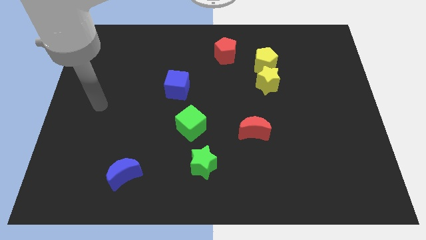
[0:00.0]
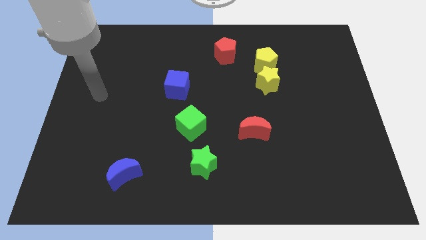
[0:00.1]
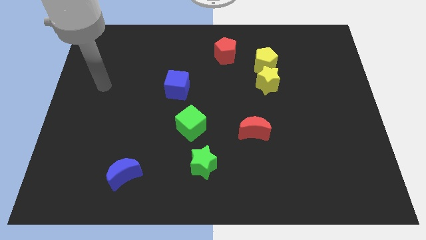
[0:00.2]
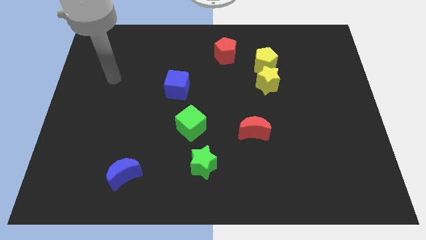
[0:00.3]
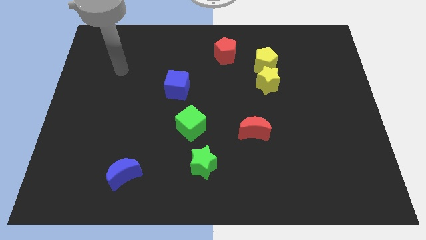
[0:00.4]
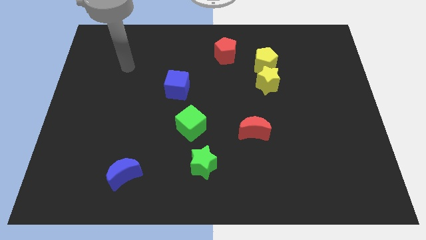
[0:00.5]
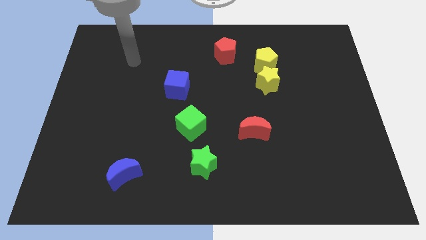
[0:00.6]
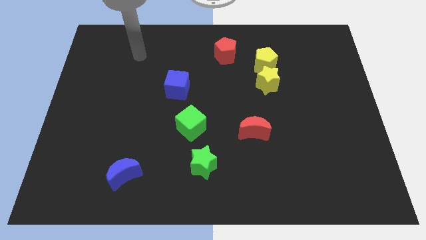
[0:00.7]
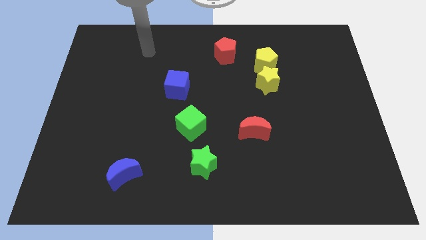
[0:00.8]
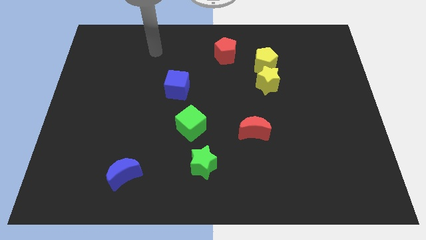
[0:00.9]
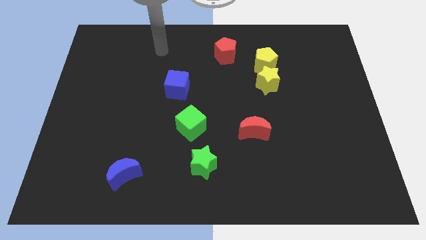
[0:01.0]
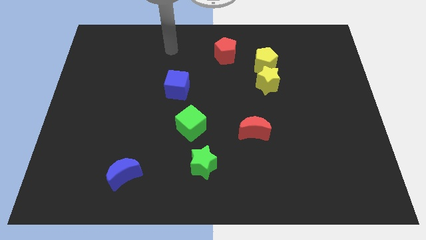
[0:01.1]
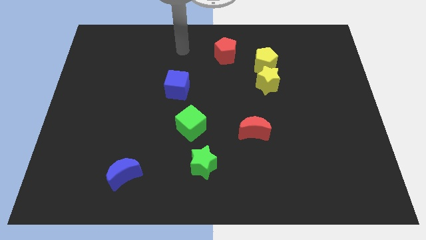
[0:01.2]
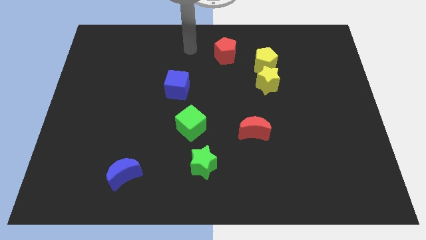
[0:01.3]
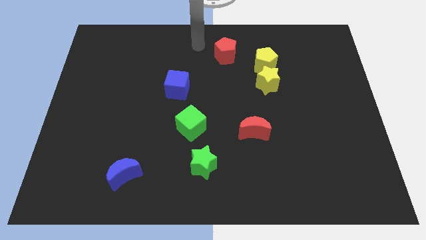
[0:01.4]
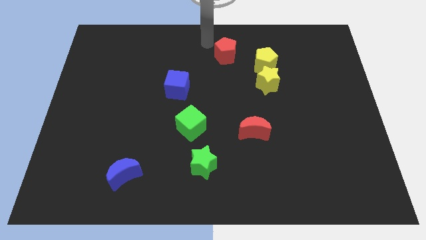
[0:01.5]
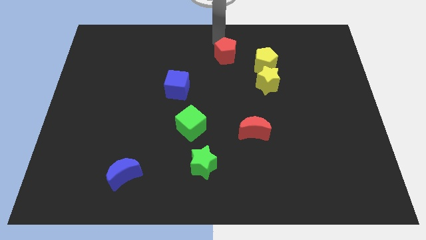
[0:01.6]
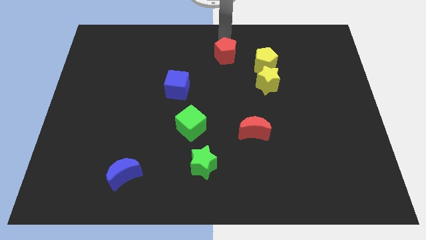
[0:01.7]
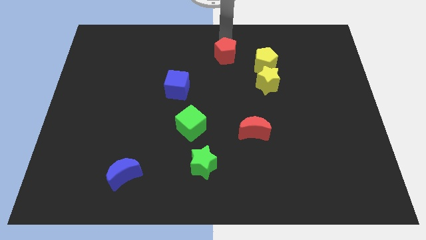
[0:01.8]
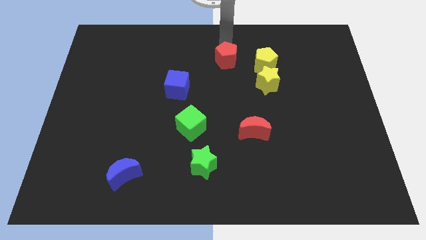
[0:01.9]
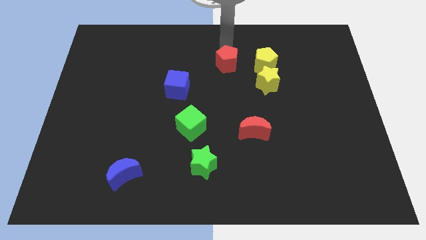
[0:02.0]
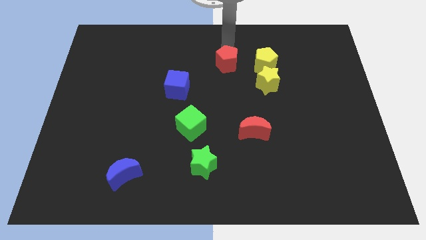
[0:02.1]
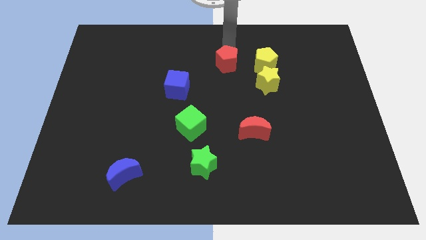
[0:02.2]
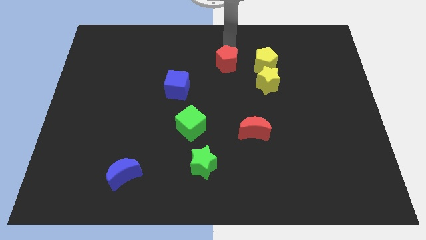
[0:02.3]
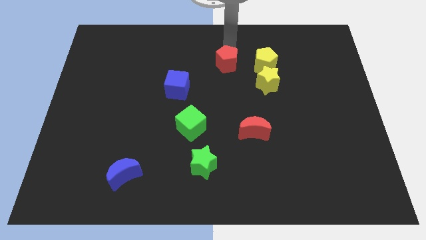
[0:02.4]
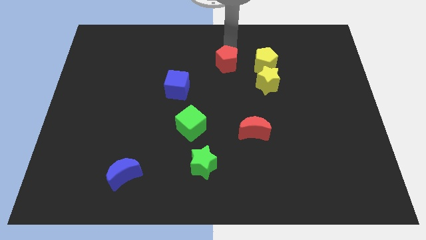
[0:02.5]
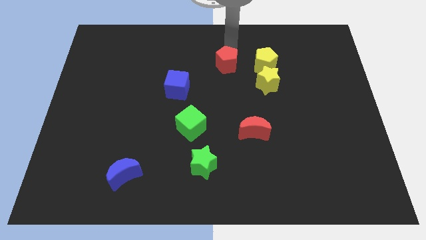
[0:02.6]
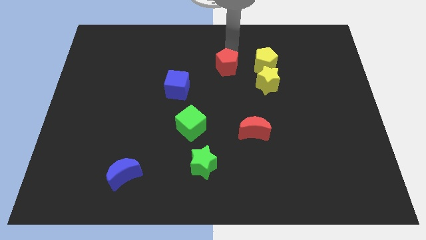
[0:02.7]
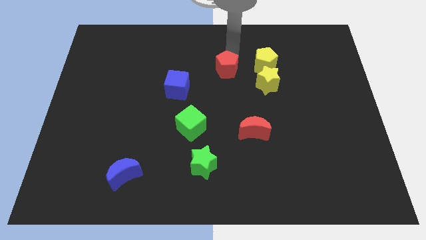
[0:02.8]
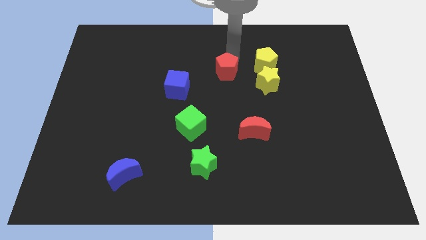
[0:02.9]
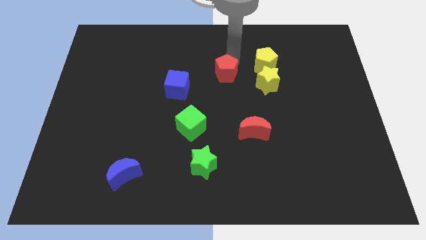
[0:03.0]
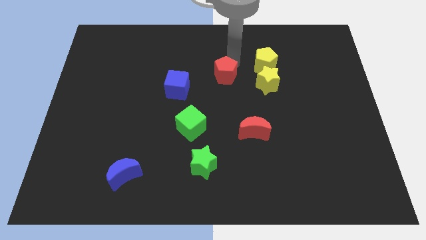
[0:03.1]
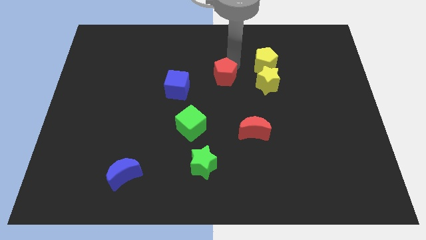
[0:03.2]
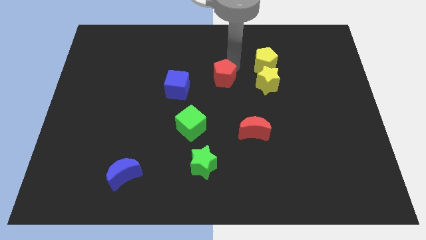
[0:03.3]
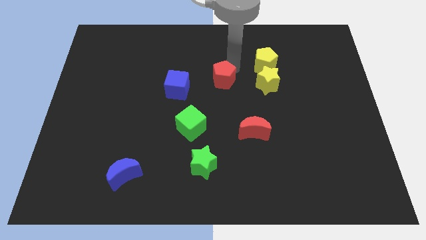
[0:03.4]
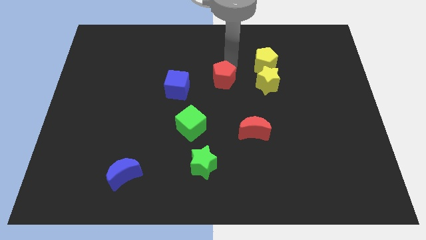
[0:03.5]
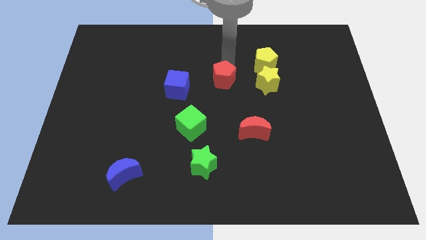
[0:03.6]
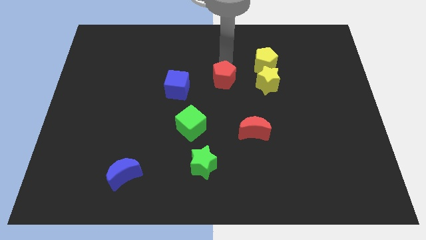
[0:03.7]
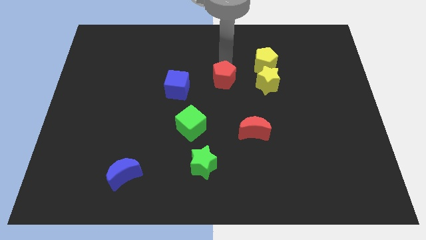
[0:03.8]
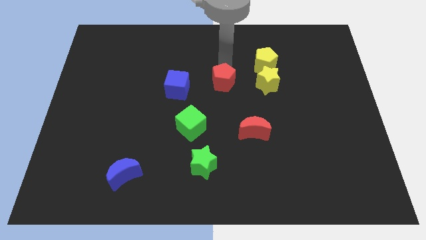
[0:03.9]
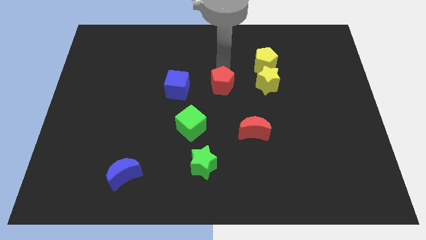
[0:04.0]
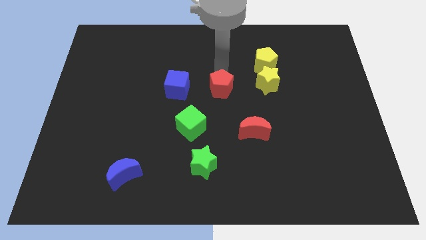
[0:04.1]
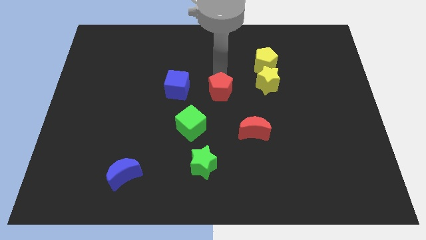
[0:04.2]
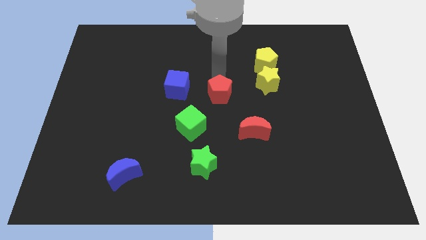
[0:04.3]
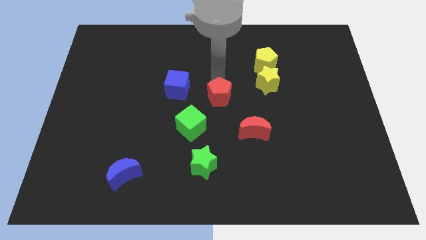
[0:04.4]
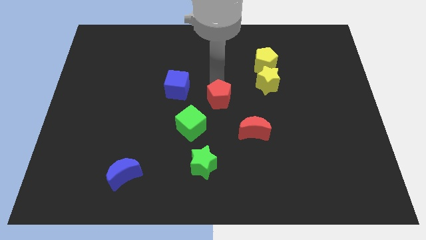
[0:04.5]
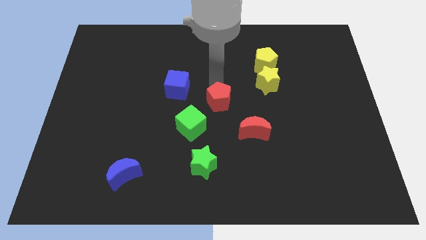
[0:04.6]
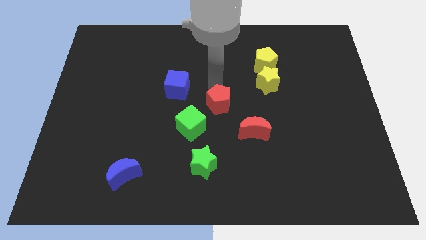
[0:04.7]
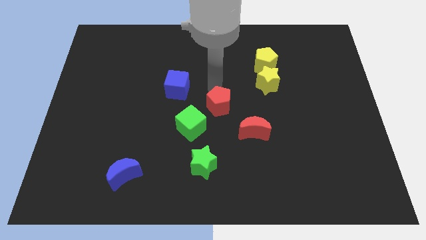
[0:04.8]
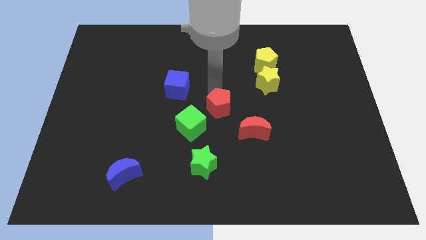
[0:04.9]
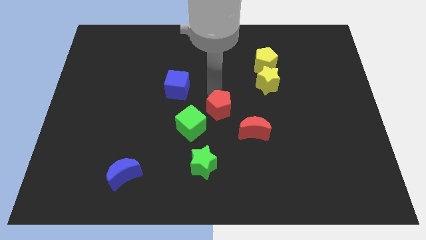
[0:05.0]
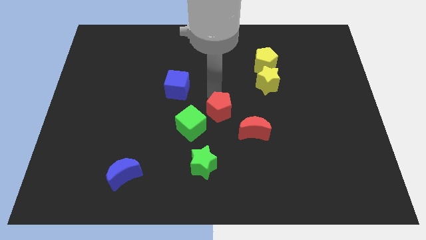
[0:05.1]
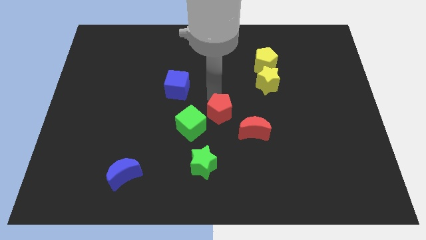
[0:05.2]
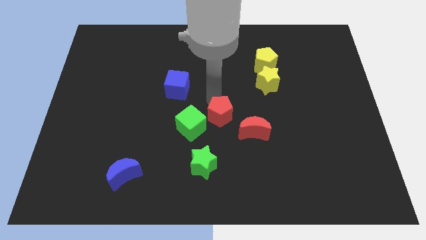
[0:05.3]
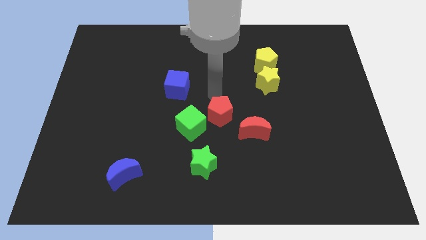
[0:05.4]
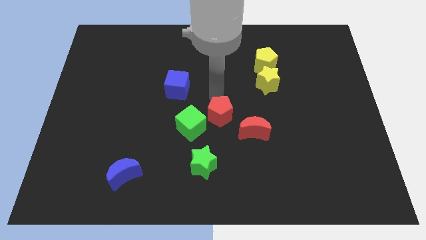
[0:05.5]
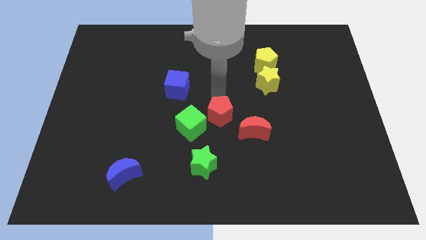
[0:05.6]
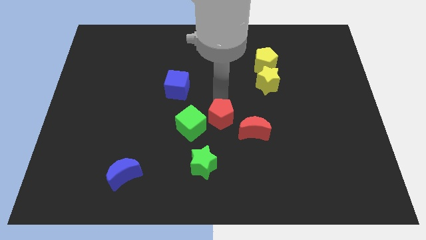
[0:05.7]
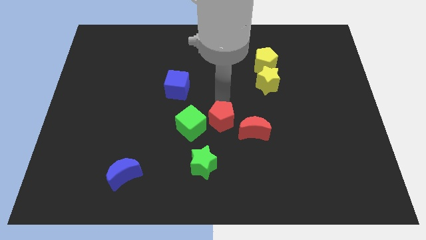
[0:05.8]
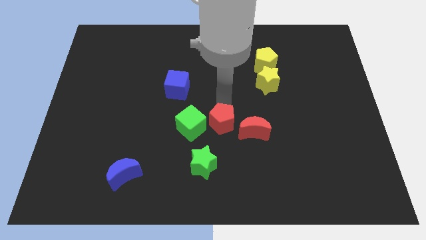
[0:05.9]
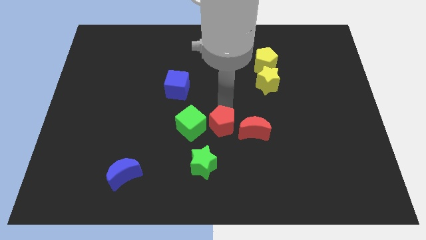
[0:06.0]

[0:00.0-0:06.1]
put the red pentagon to the top right side of the green star
